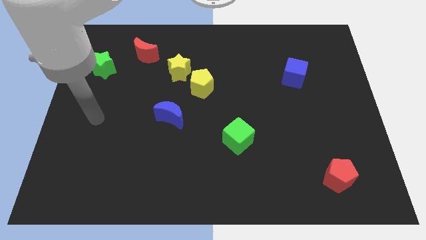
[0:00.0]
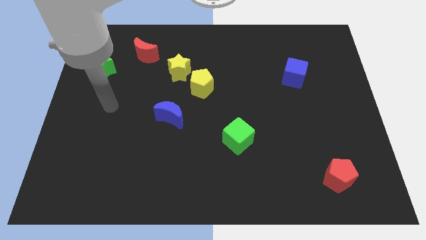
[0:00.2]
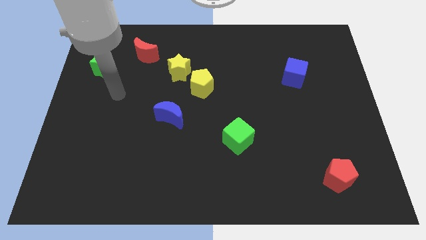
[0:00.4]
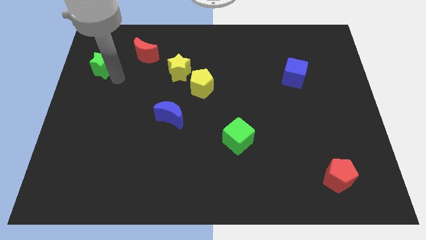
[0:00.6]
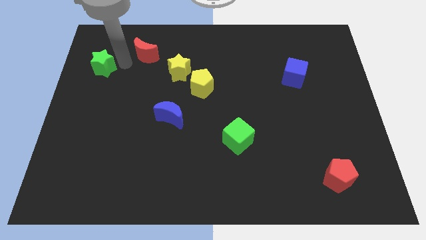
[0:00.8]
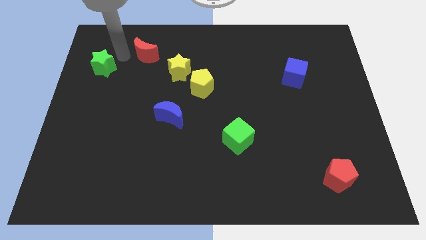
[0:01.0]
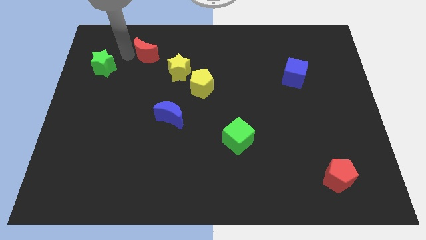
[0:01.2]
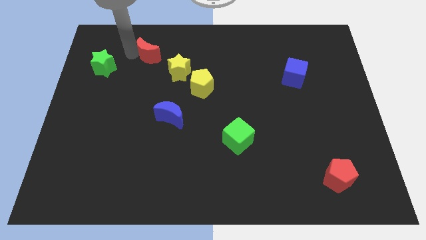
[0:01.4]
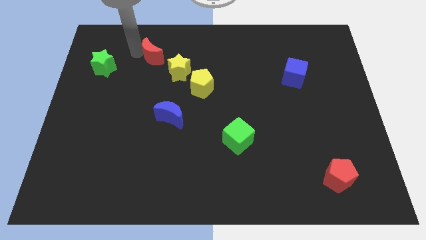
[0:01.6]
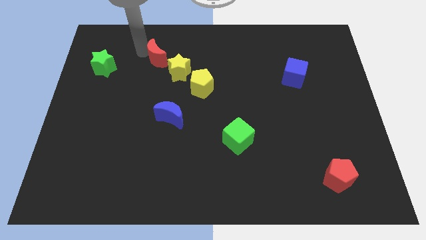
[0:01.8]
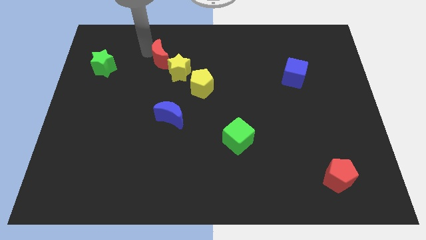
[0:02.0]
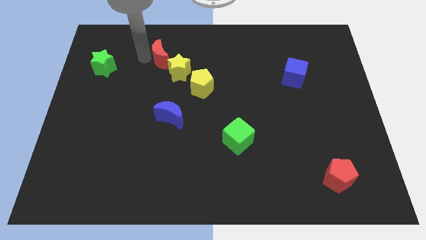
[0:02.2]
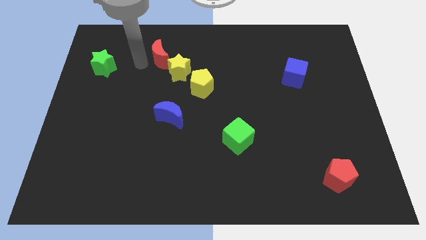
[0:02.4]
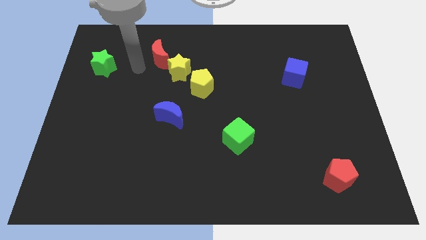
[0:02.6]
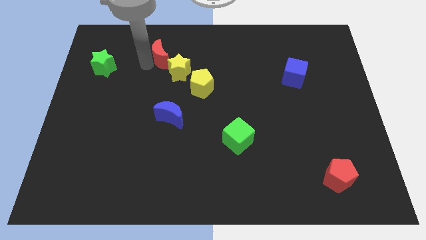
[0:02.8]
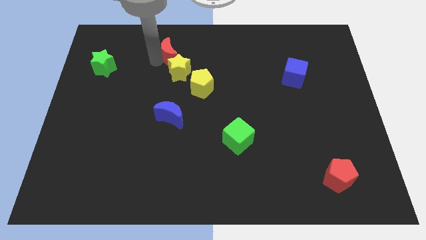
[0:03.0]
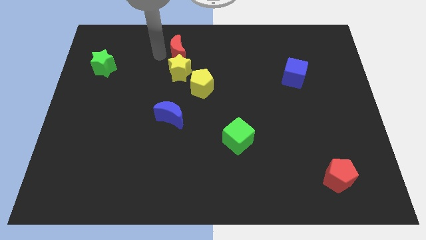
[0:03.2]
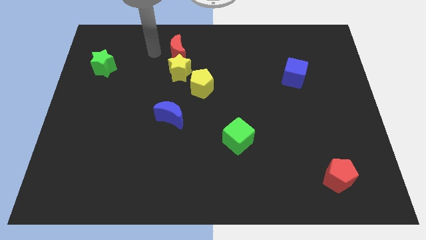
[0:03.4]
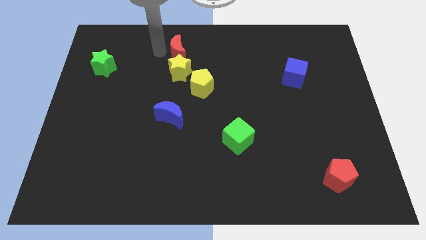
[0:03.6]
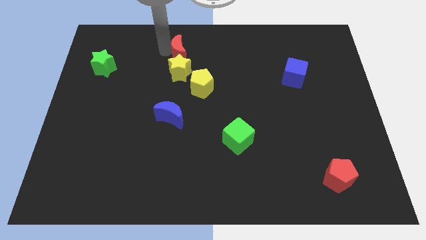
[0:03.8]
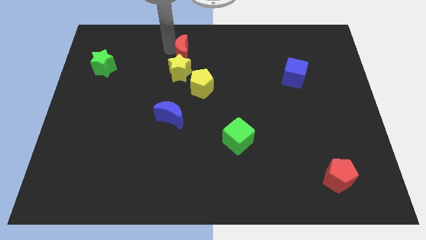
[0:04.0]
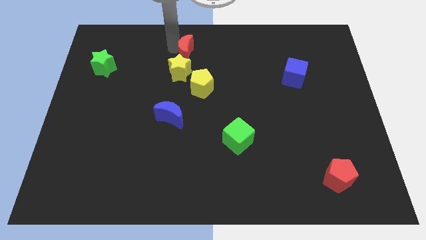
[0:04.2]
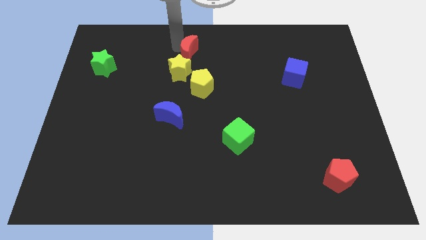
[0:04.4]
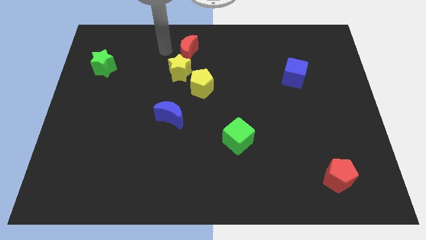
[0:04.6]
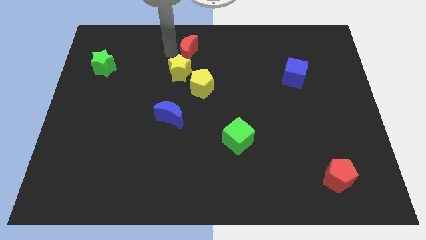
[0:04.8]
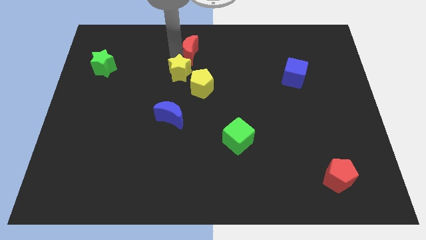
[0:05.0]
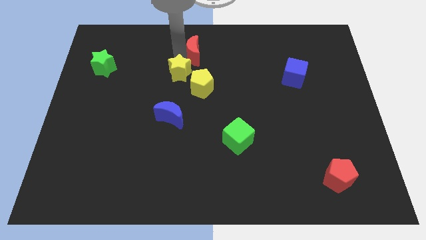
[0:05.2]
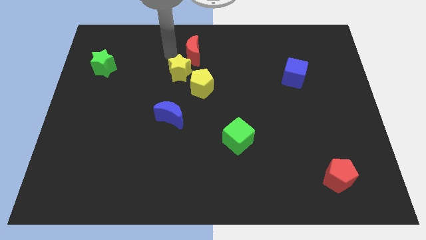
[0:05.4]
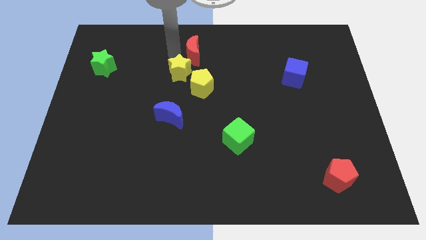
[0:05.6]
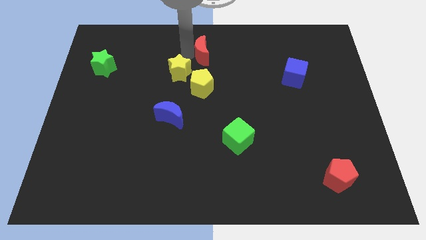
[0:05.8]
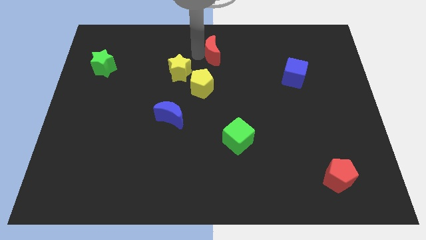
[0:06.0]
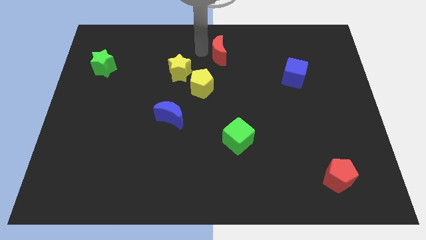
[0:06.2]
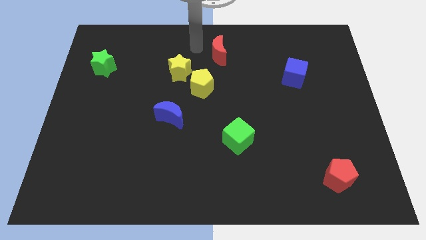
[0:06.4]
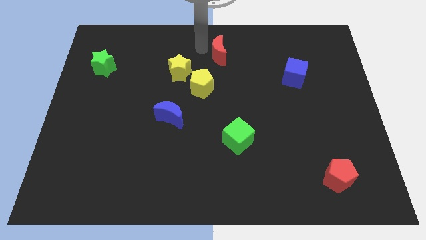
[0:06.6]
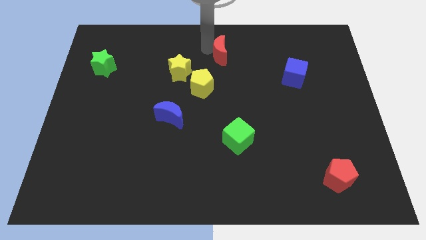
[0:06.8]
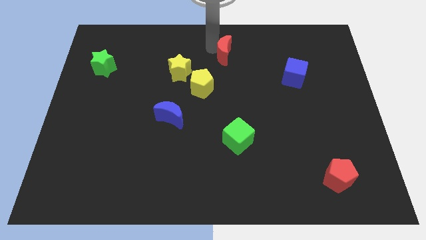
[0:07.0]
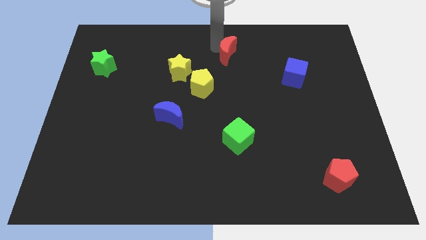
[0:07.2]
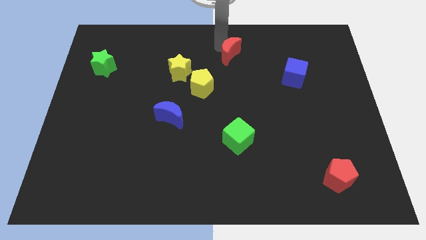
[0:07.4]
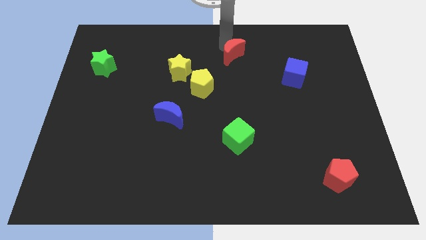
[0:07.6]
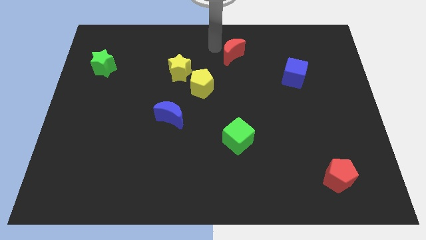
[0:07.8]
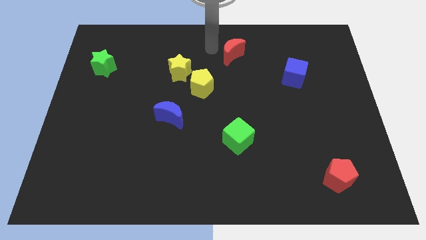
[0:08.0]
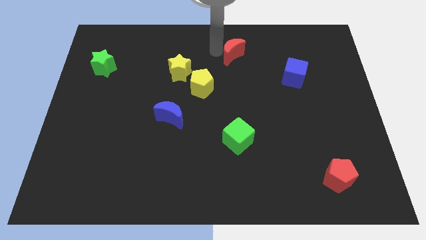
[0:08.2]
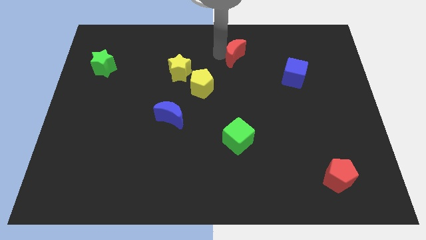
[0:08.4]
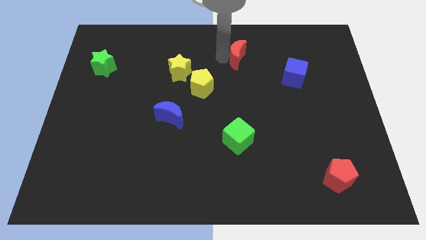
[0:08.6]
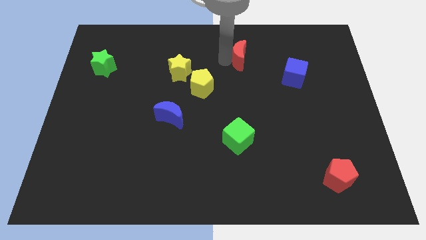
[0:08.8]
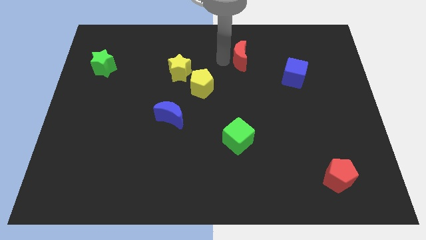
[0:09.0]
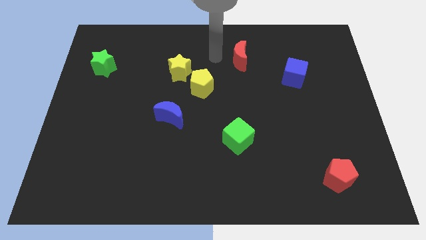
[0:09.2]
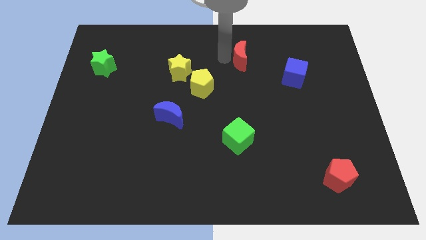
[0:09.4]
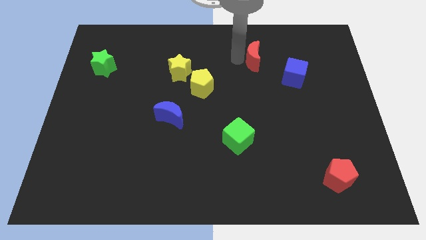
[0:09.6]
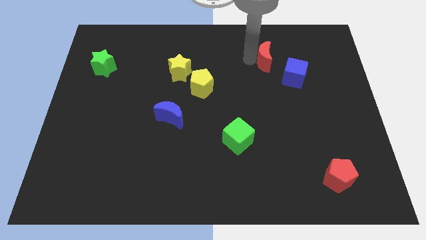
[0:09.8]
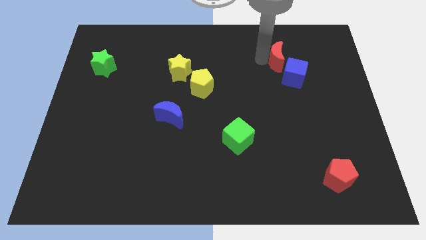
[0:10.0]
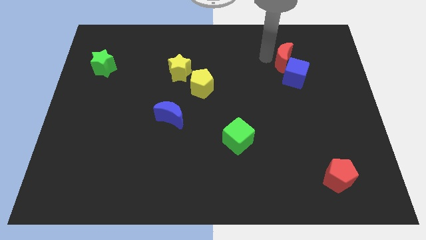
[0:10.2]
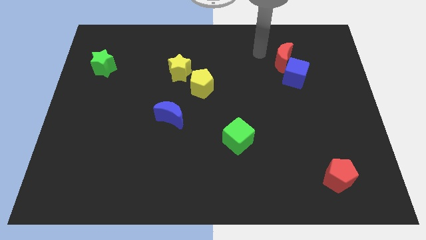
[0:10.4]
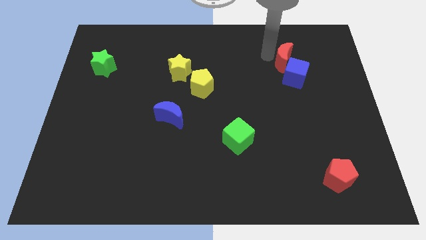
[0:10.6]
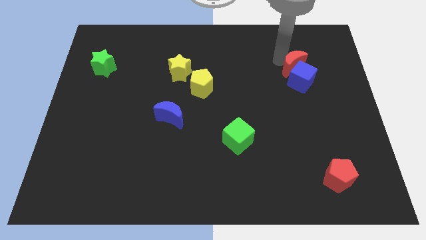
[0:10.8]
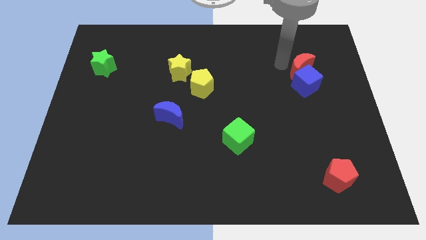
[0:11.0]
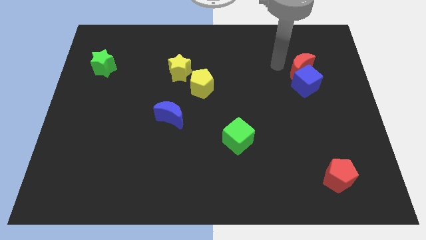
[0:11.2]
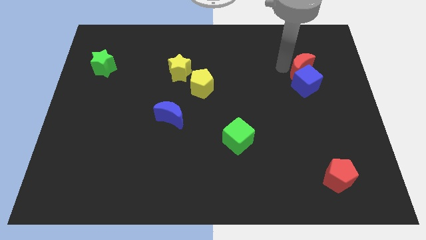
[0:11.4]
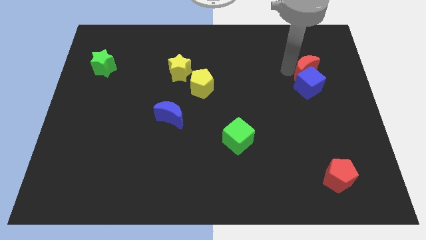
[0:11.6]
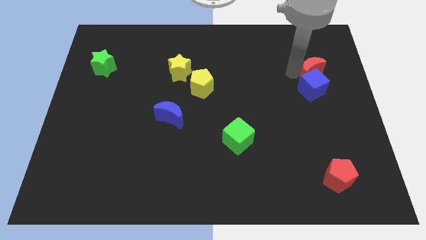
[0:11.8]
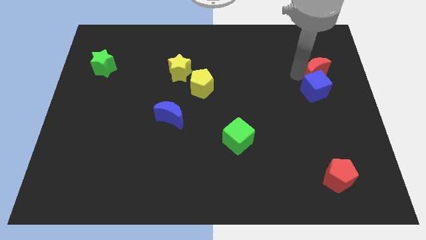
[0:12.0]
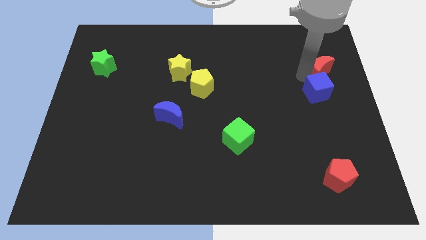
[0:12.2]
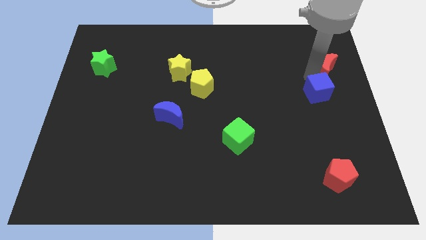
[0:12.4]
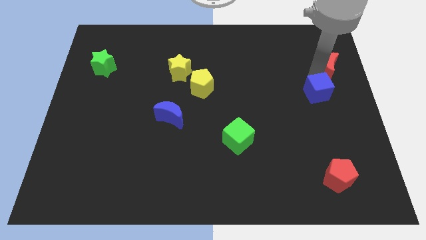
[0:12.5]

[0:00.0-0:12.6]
move the red moon to the center right
